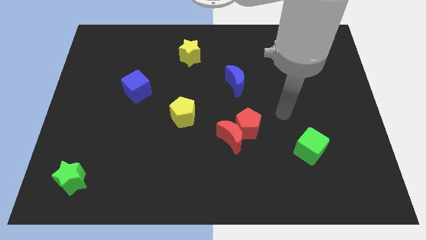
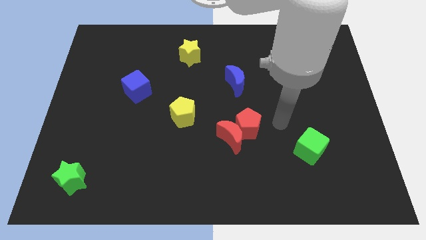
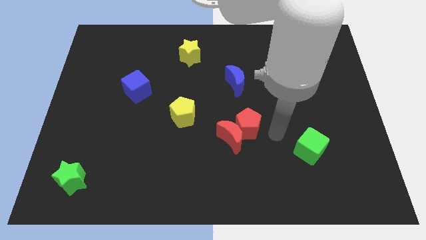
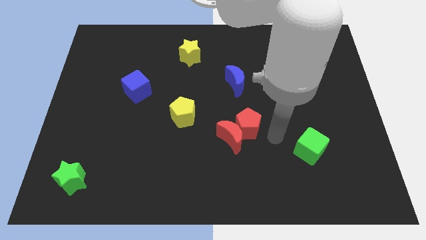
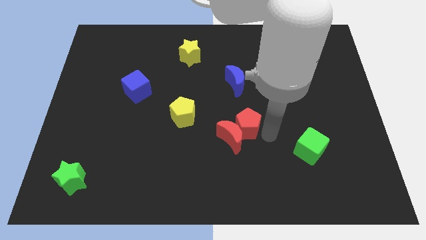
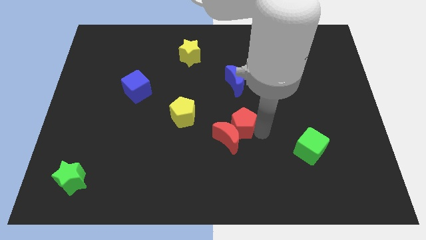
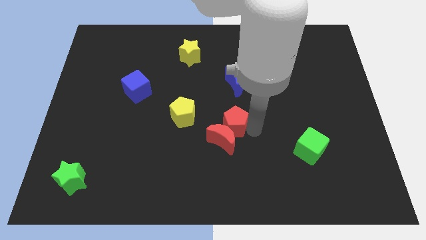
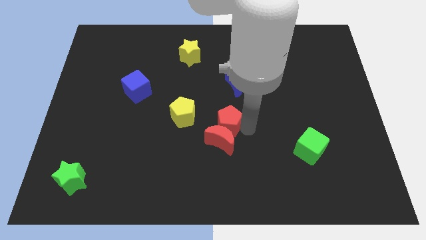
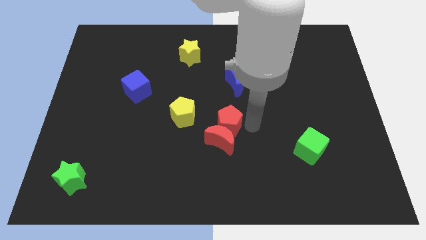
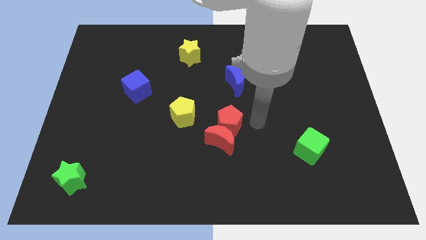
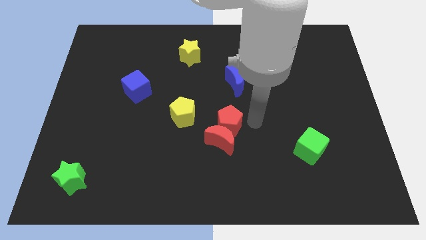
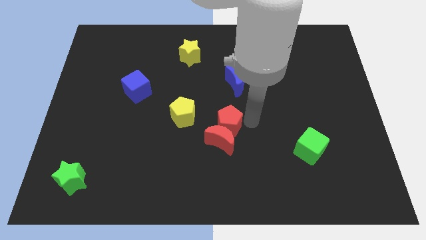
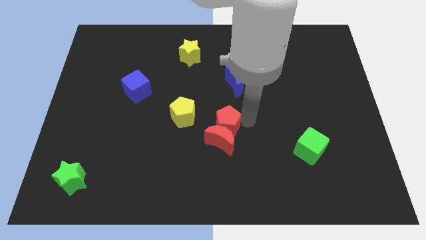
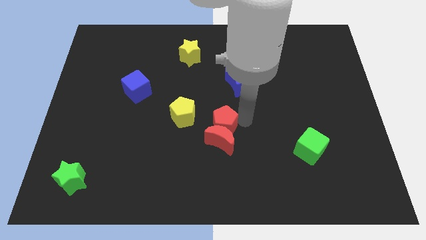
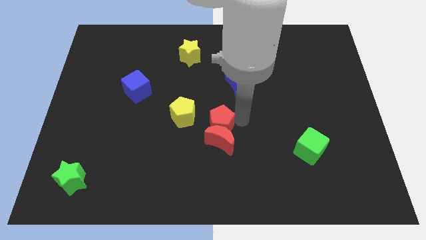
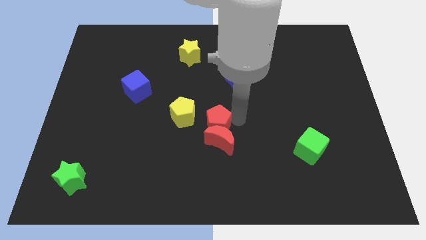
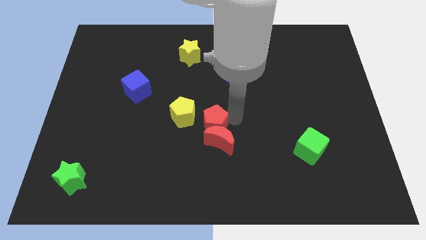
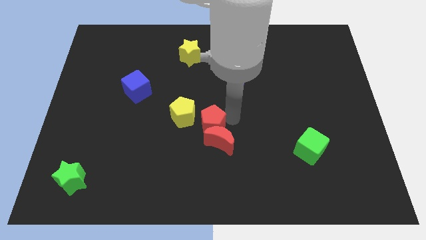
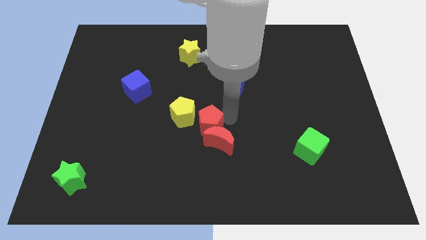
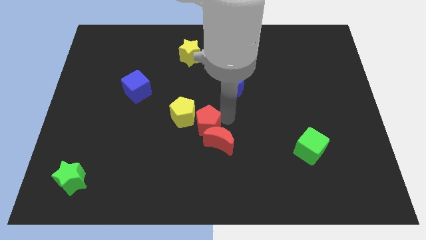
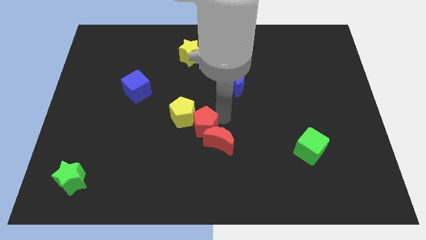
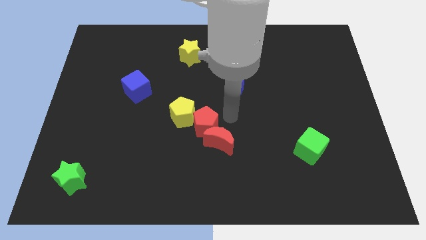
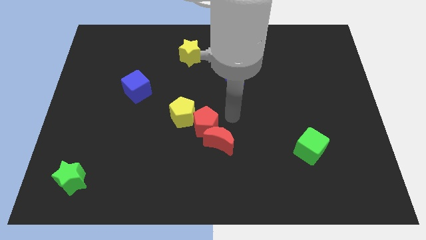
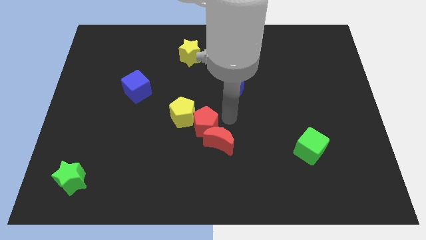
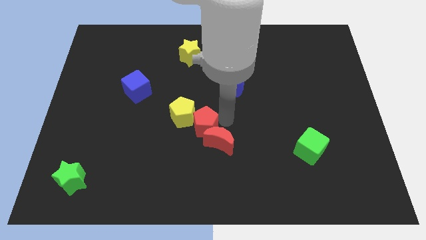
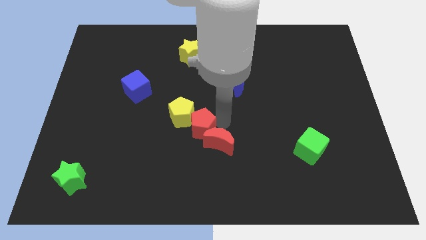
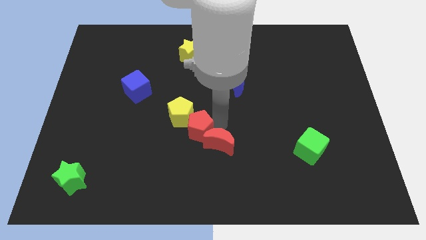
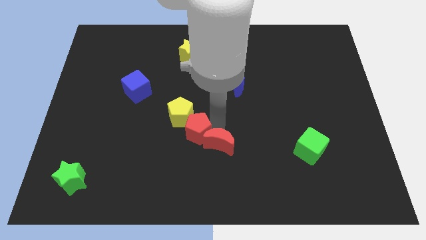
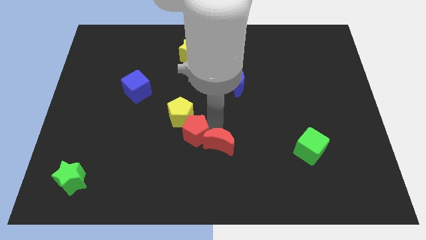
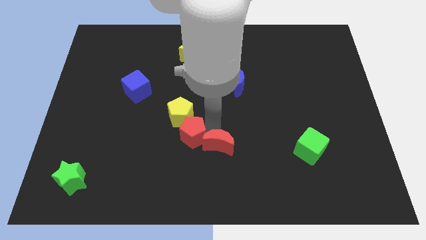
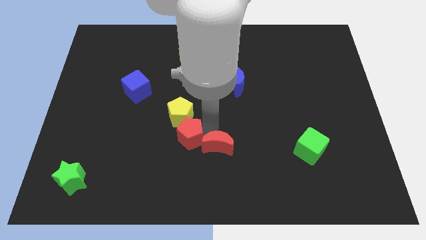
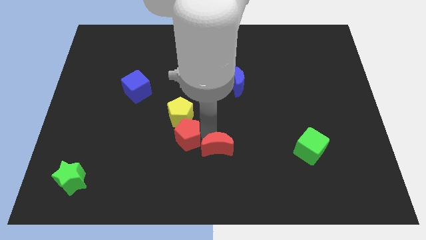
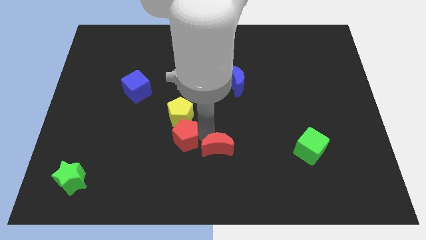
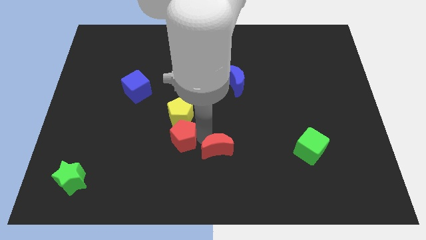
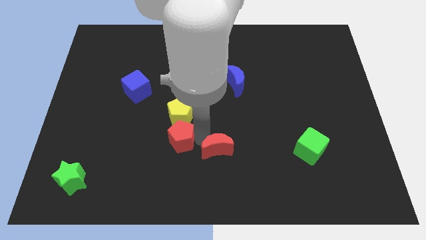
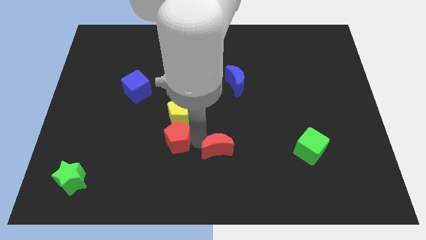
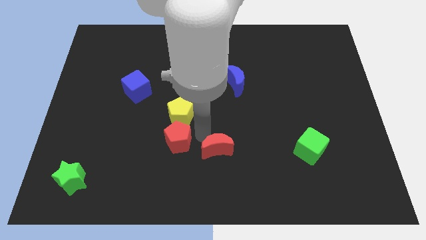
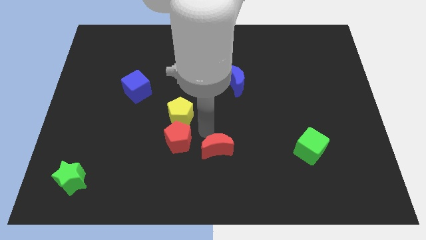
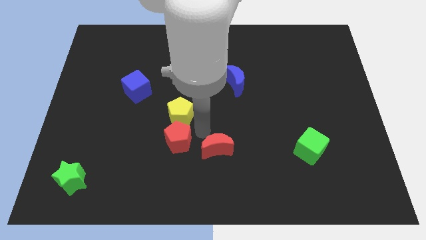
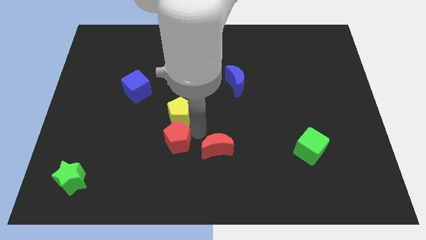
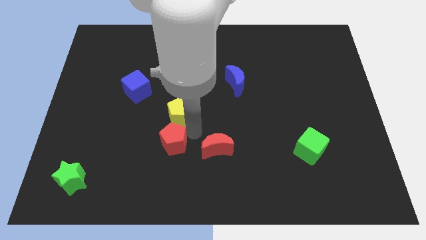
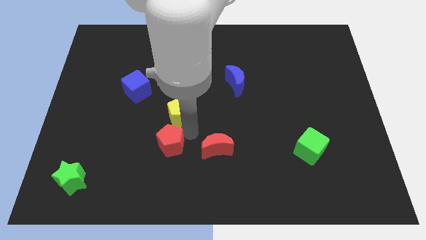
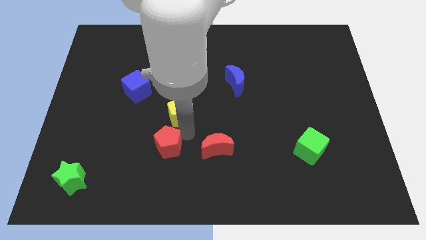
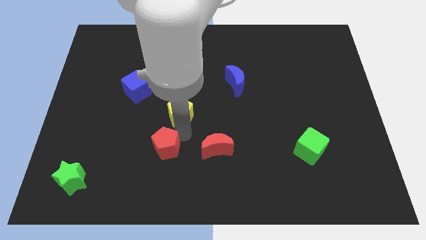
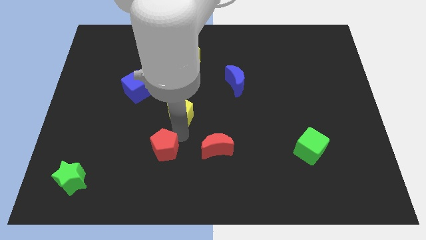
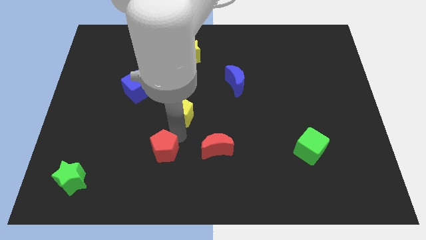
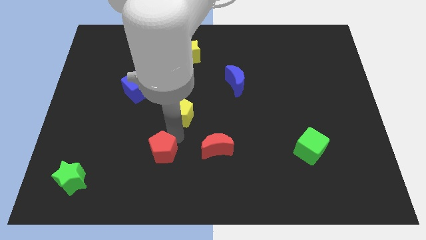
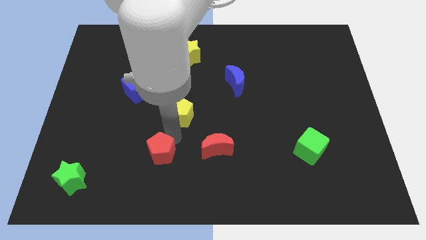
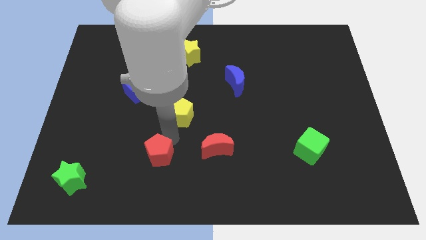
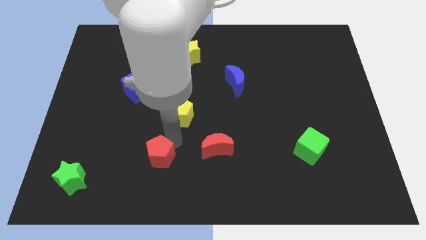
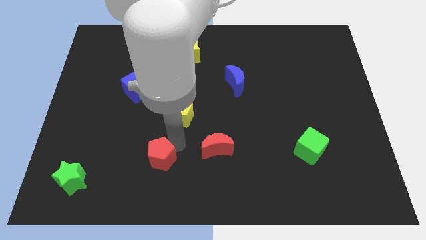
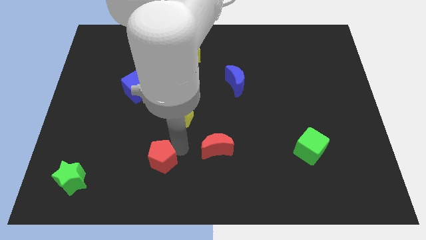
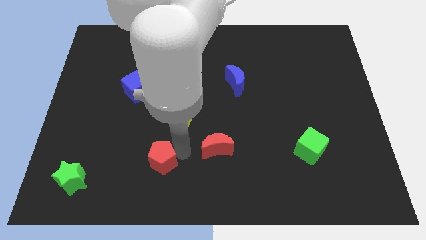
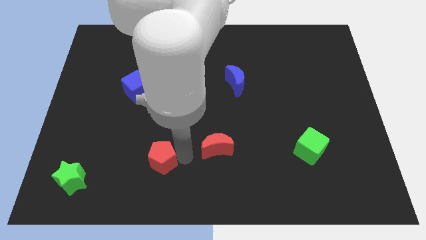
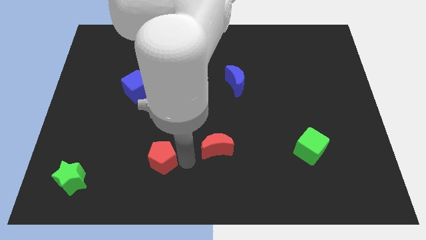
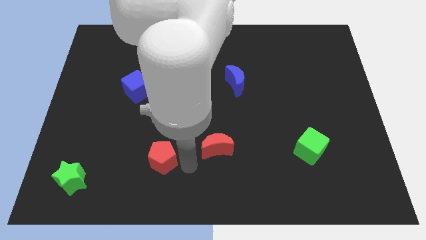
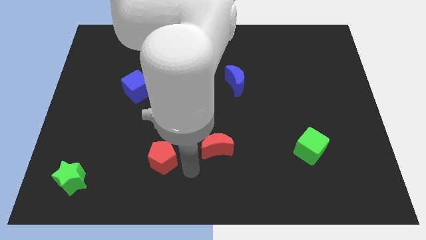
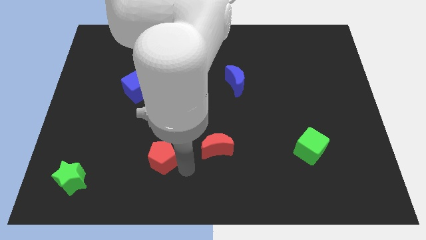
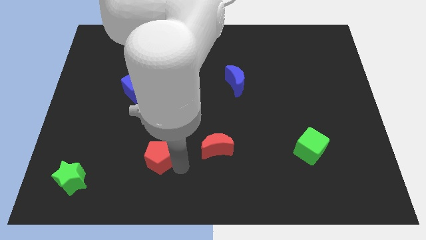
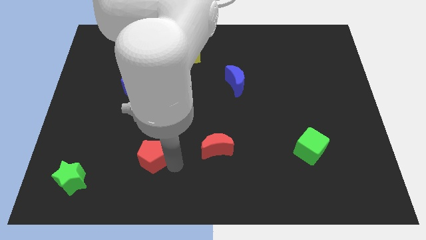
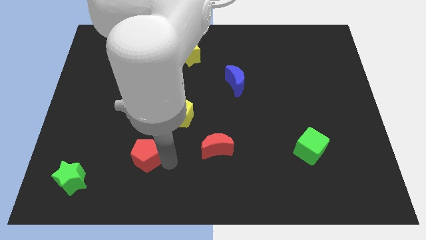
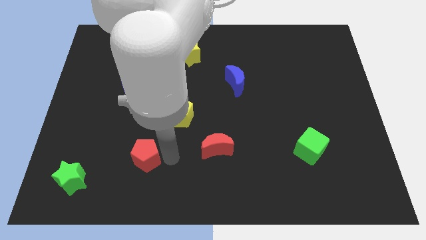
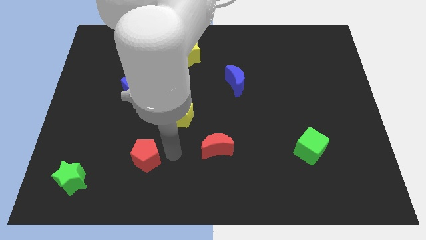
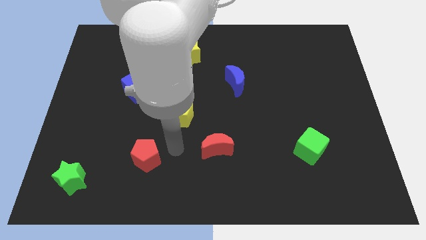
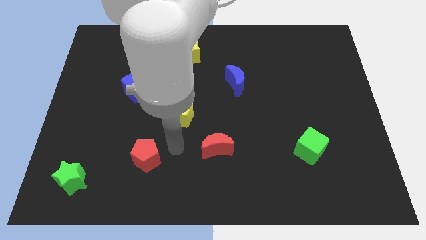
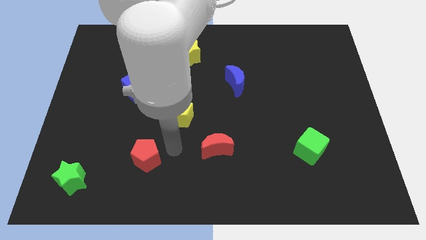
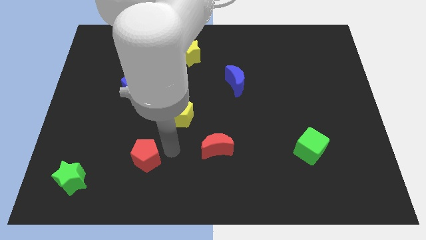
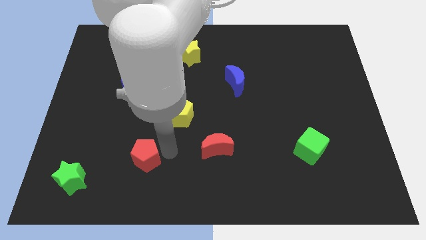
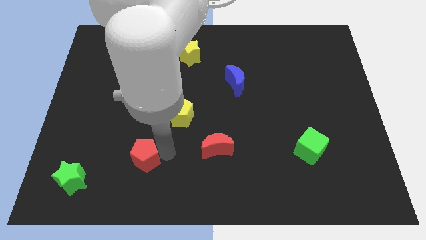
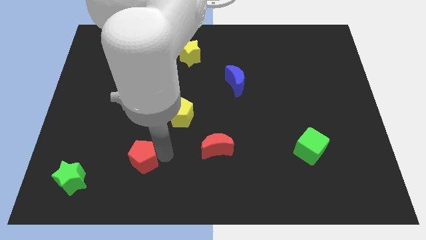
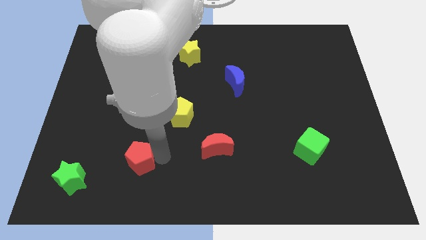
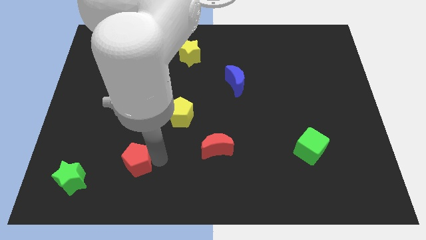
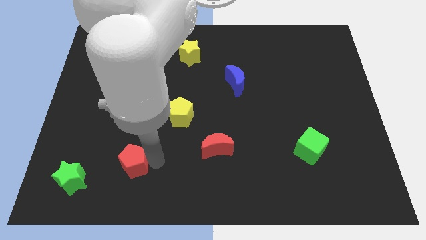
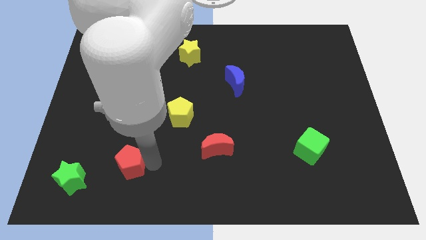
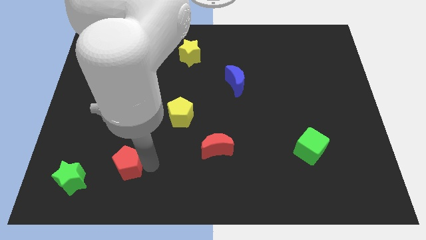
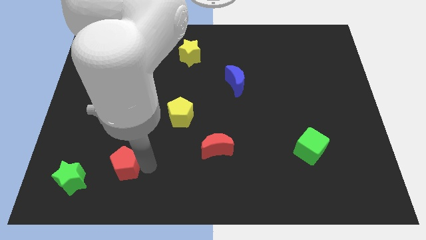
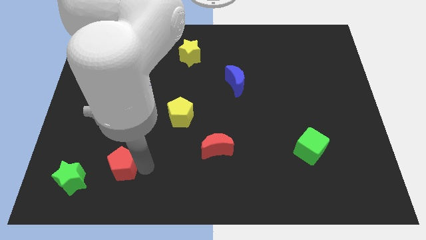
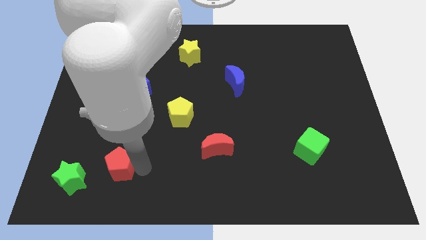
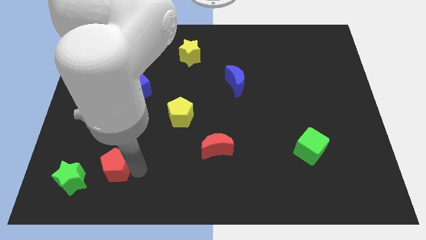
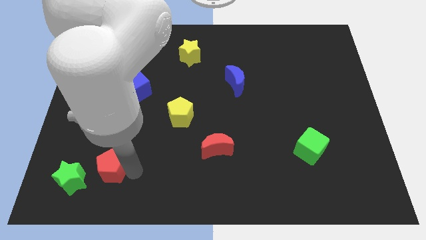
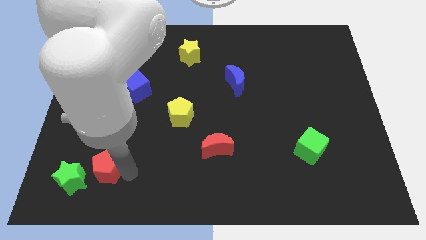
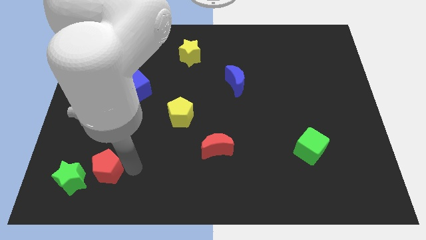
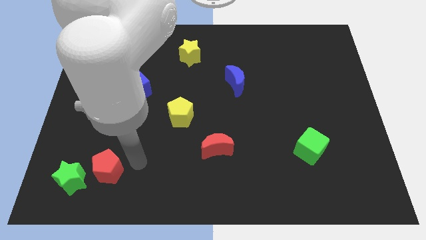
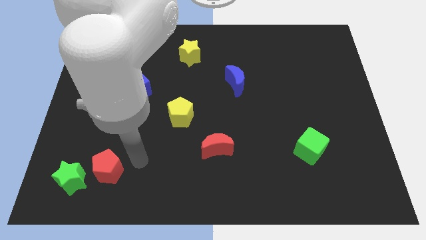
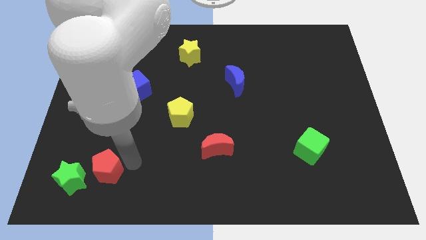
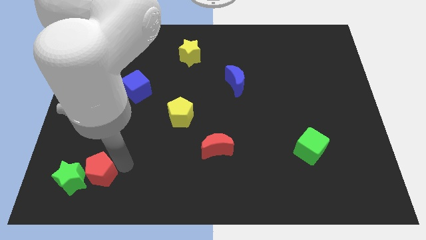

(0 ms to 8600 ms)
slide the red pentagon next to the green star
